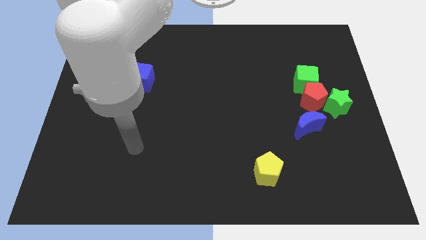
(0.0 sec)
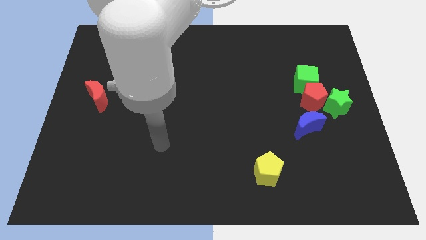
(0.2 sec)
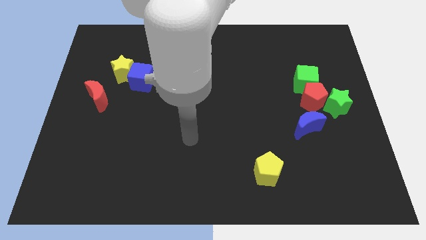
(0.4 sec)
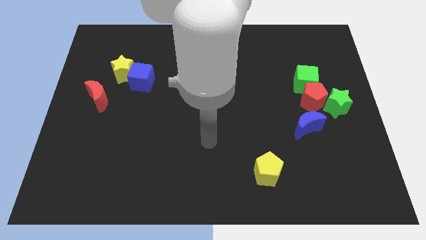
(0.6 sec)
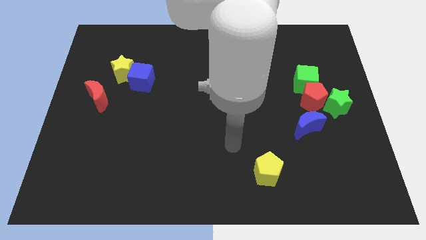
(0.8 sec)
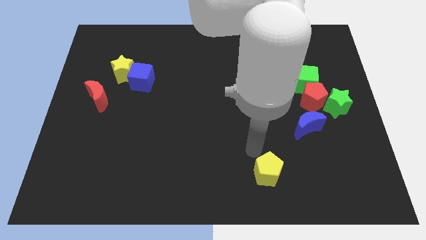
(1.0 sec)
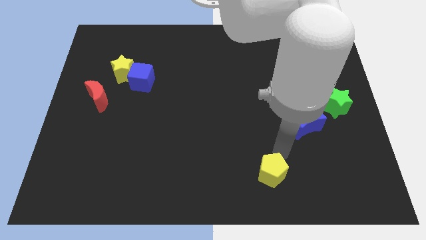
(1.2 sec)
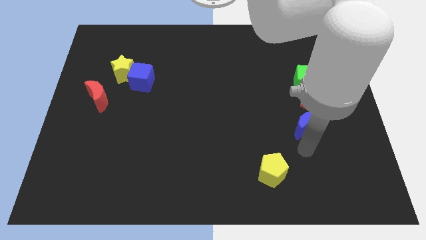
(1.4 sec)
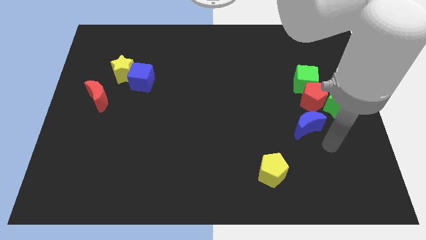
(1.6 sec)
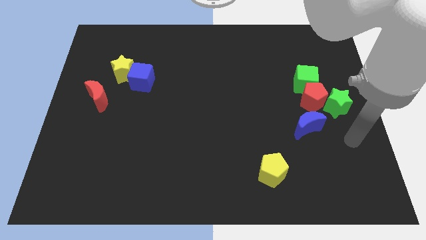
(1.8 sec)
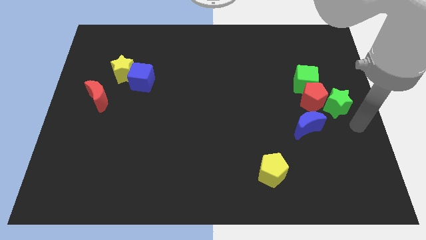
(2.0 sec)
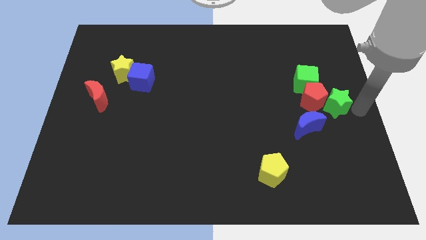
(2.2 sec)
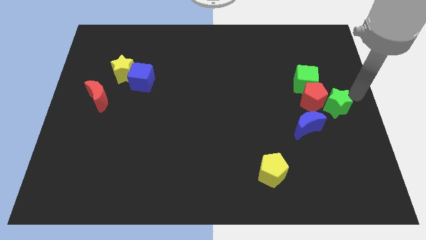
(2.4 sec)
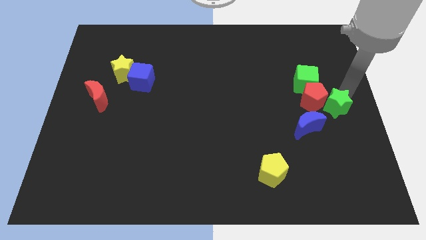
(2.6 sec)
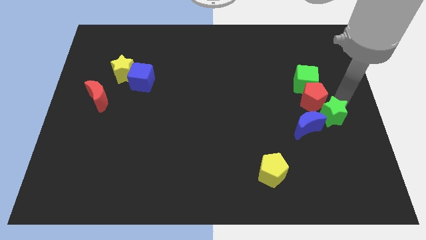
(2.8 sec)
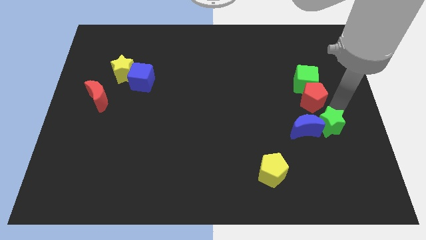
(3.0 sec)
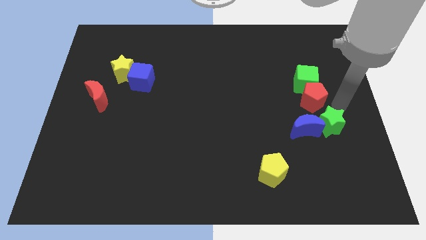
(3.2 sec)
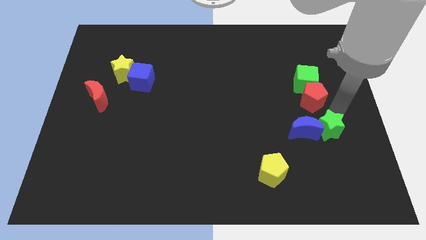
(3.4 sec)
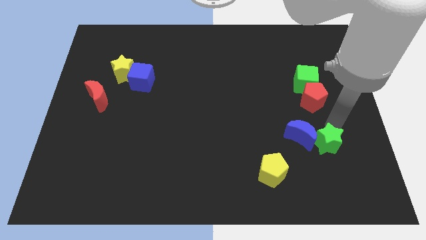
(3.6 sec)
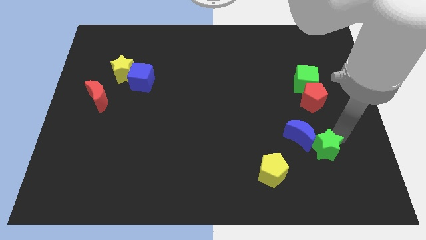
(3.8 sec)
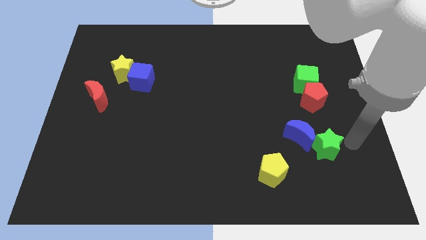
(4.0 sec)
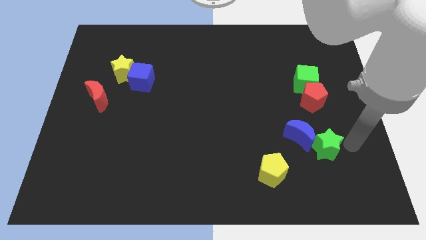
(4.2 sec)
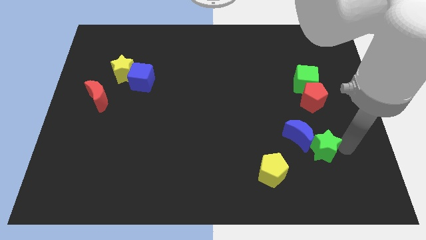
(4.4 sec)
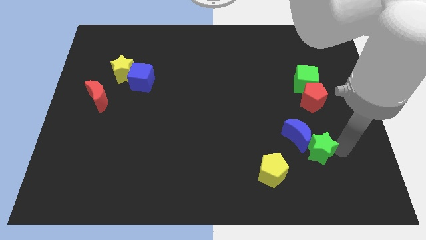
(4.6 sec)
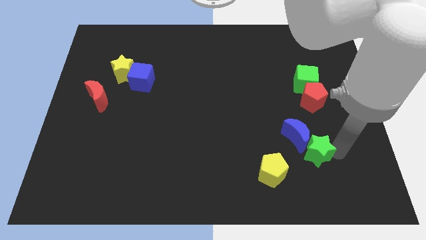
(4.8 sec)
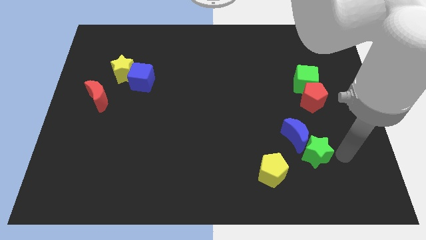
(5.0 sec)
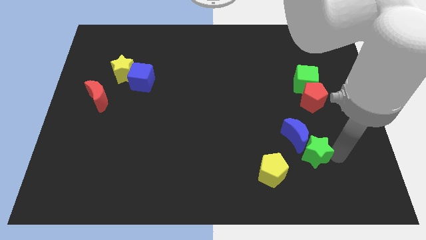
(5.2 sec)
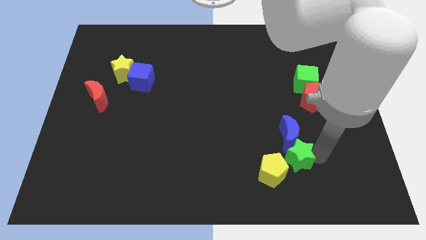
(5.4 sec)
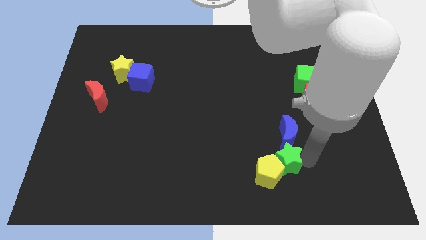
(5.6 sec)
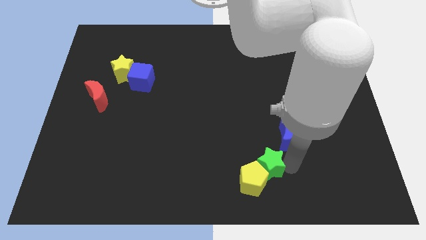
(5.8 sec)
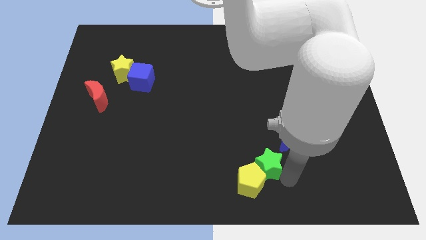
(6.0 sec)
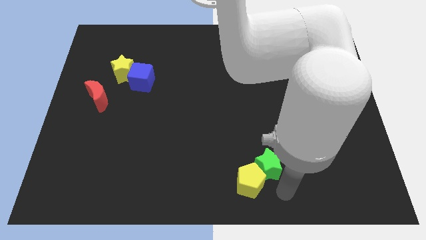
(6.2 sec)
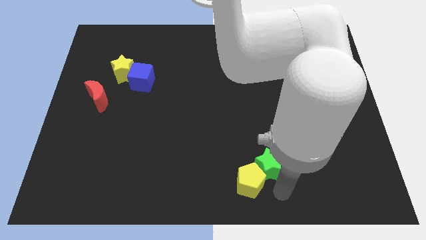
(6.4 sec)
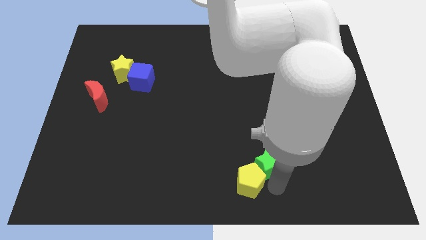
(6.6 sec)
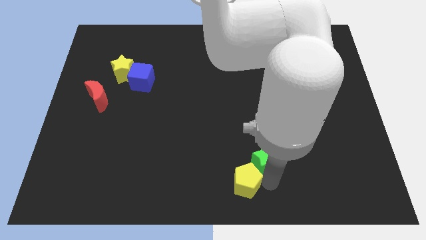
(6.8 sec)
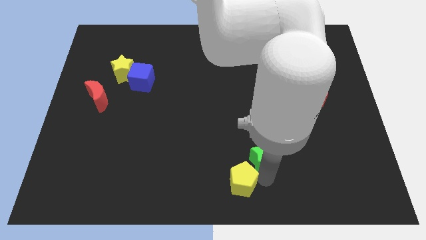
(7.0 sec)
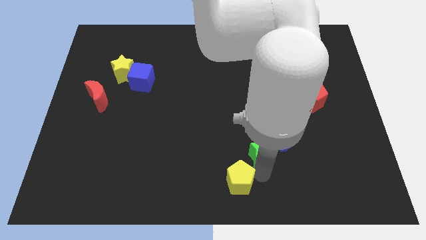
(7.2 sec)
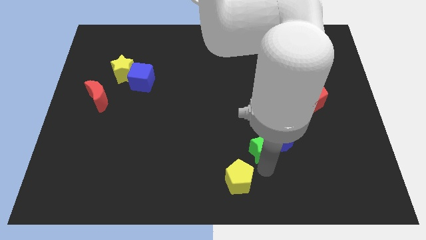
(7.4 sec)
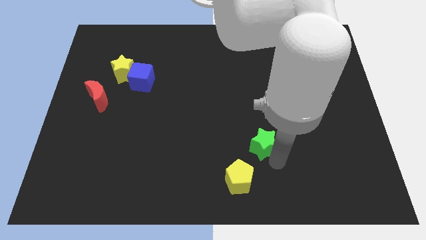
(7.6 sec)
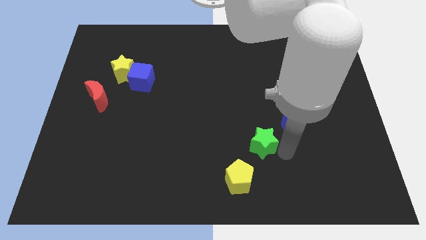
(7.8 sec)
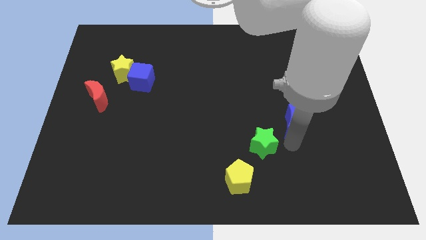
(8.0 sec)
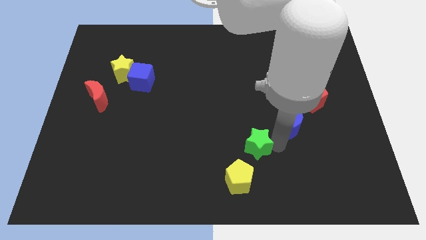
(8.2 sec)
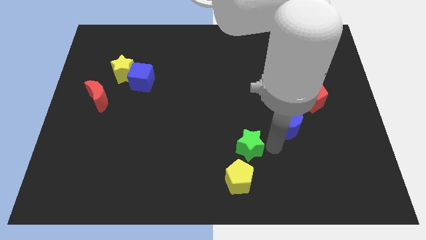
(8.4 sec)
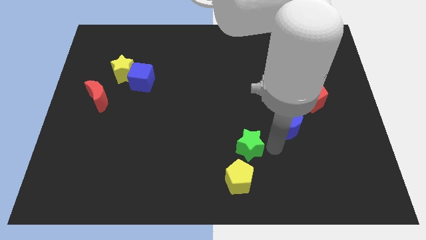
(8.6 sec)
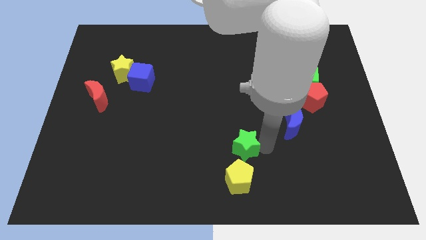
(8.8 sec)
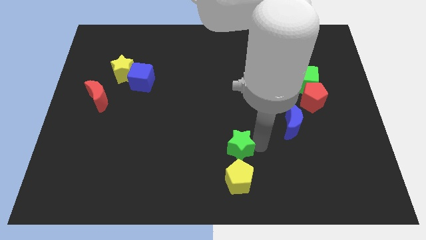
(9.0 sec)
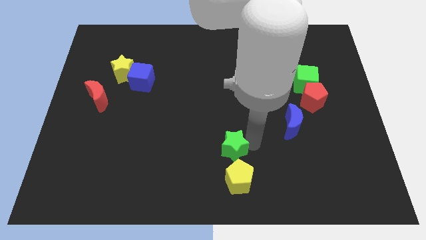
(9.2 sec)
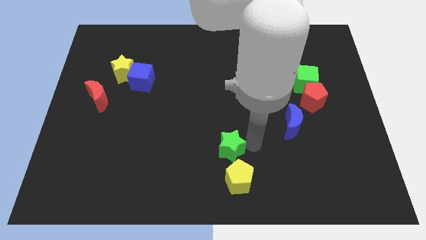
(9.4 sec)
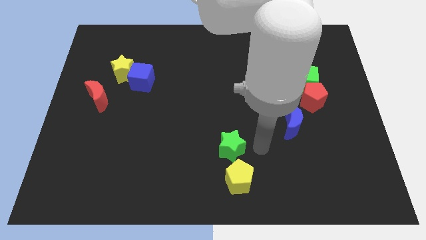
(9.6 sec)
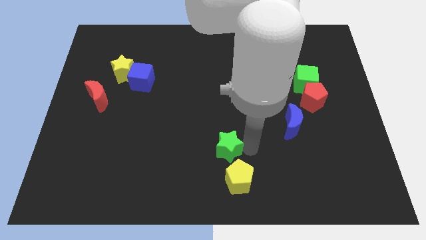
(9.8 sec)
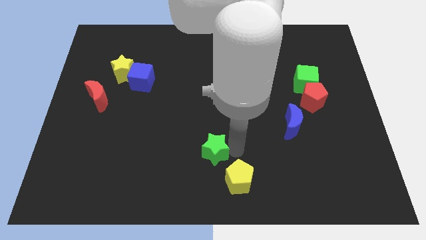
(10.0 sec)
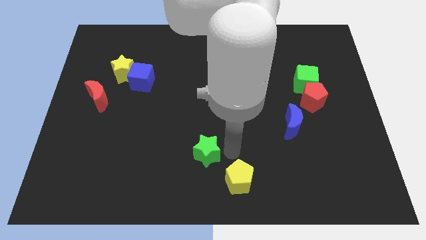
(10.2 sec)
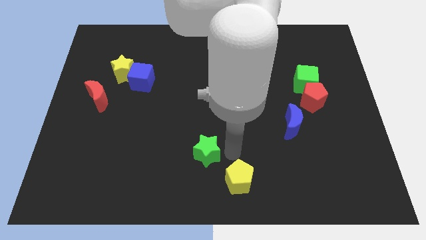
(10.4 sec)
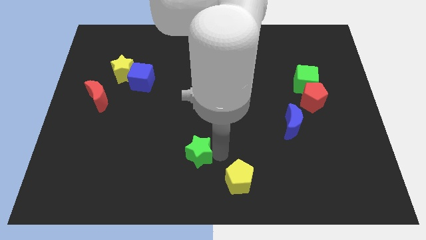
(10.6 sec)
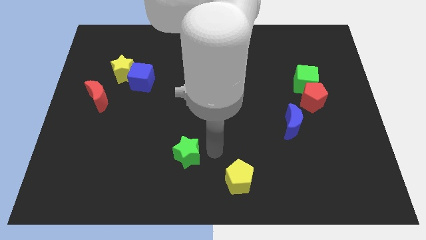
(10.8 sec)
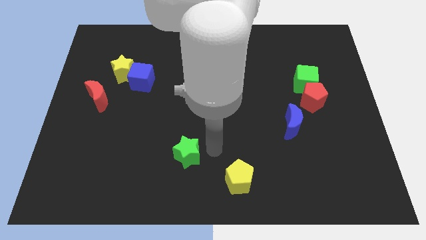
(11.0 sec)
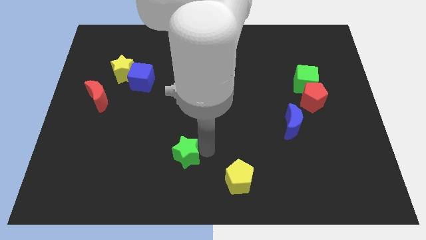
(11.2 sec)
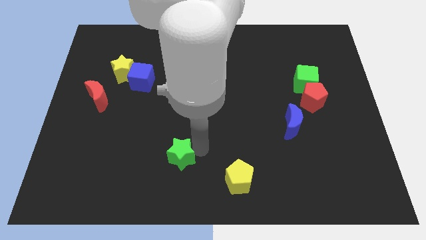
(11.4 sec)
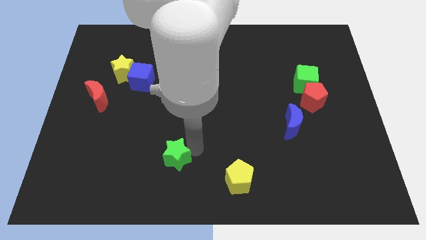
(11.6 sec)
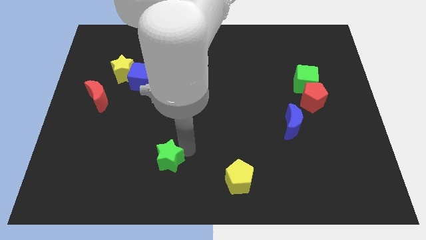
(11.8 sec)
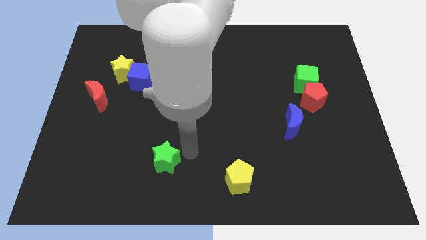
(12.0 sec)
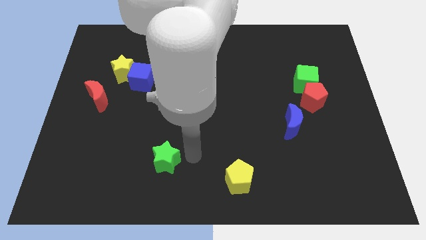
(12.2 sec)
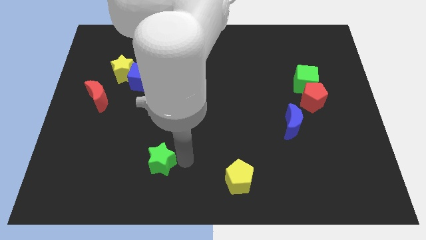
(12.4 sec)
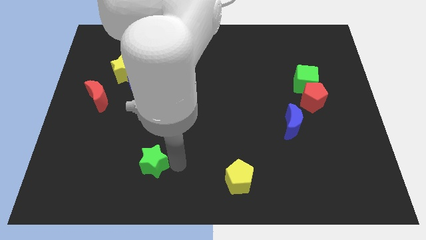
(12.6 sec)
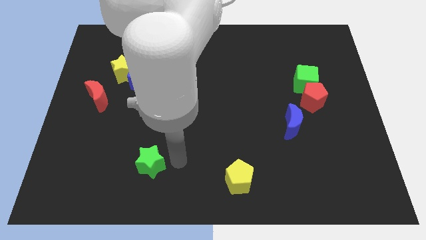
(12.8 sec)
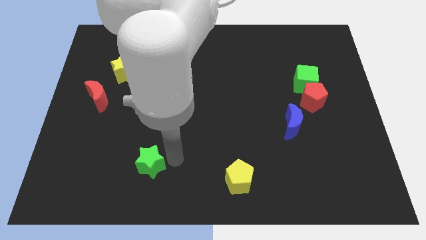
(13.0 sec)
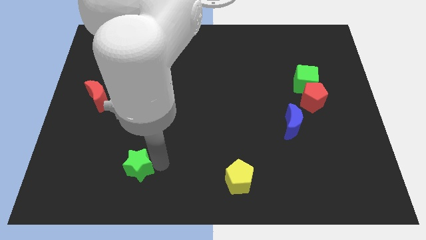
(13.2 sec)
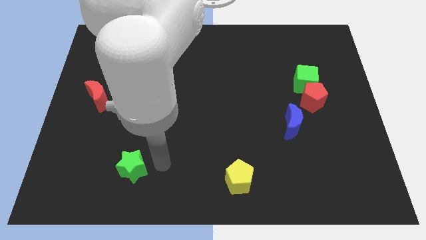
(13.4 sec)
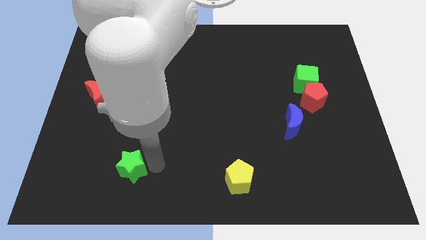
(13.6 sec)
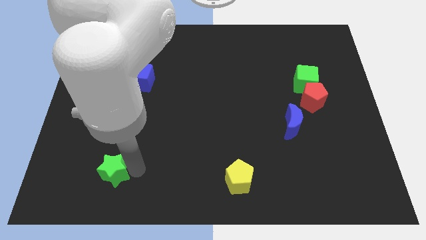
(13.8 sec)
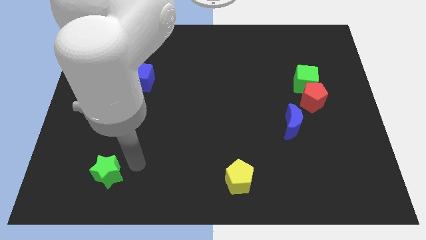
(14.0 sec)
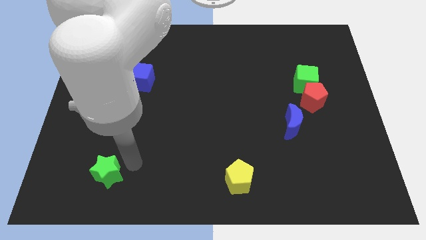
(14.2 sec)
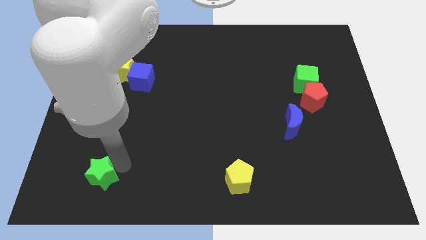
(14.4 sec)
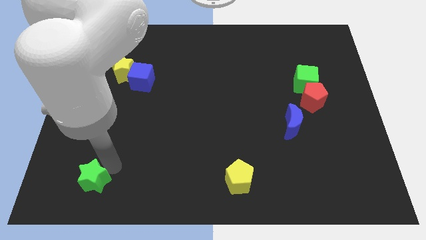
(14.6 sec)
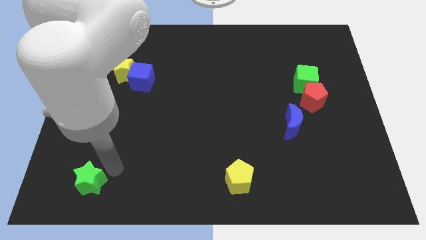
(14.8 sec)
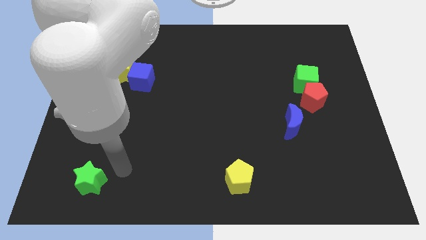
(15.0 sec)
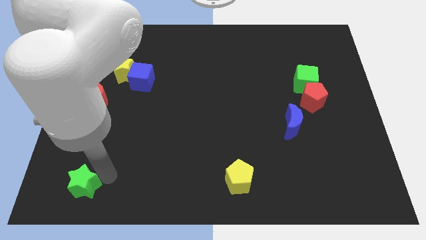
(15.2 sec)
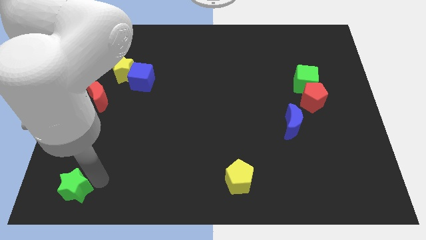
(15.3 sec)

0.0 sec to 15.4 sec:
push the green star to the bottom left
